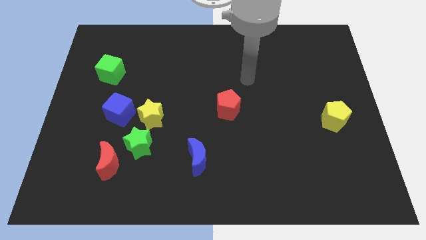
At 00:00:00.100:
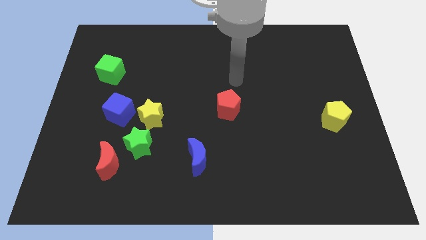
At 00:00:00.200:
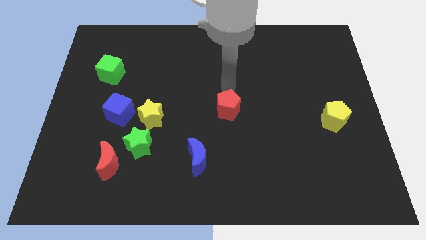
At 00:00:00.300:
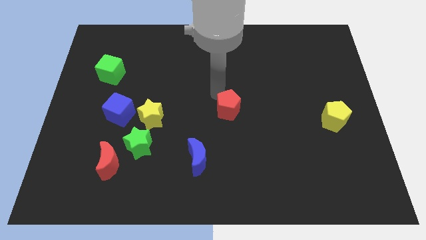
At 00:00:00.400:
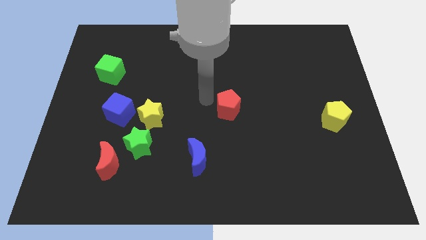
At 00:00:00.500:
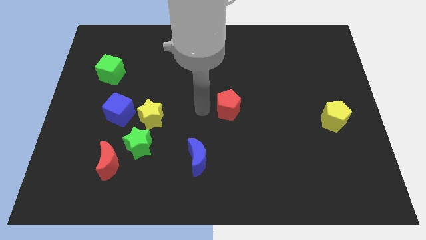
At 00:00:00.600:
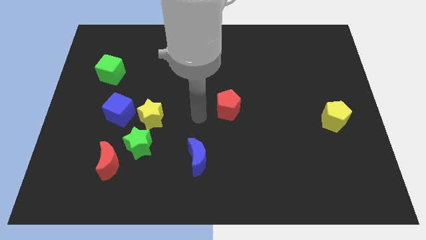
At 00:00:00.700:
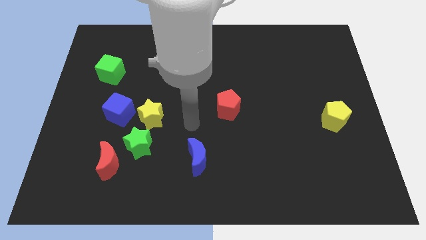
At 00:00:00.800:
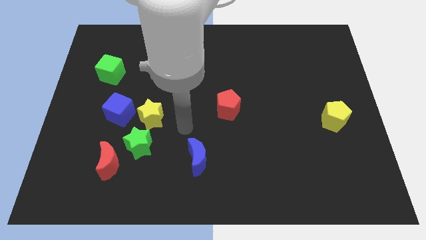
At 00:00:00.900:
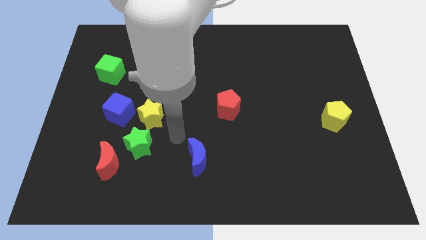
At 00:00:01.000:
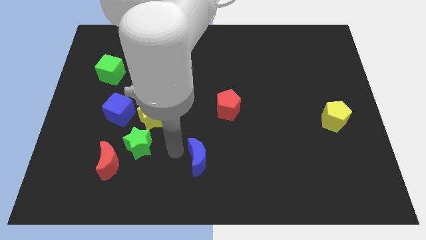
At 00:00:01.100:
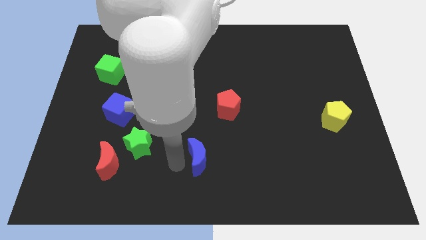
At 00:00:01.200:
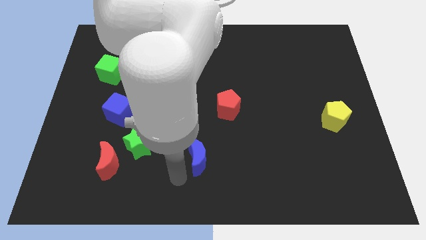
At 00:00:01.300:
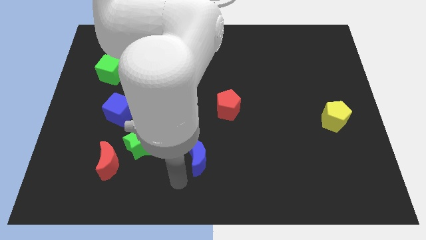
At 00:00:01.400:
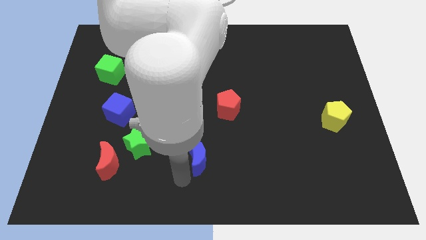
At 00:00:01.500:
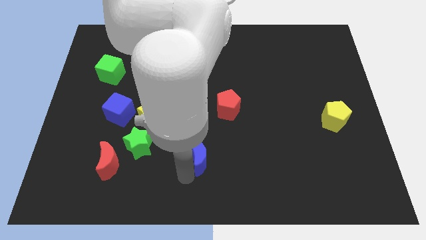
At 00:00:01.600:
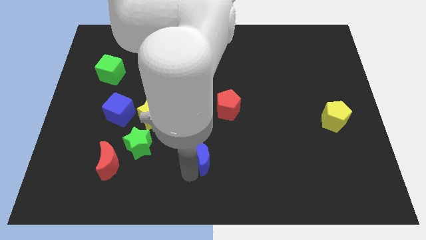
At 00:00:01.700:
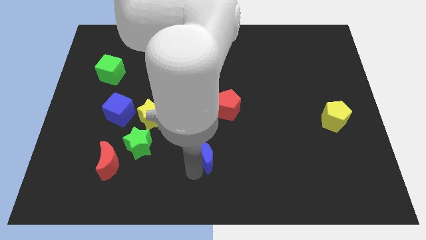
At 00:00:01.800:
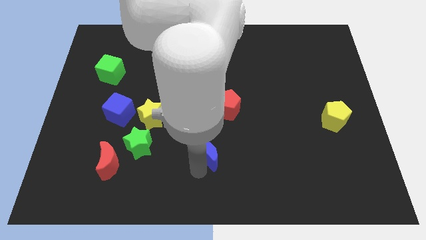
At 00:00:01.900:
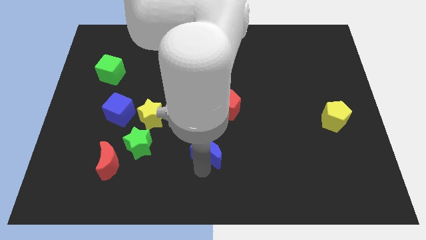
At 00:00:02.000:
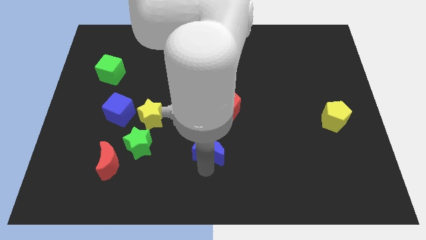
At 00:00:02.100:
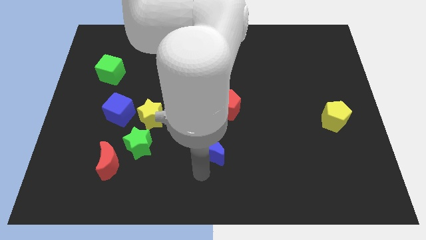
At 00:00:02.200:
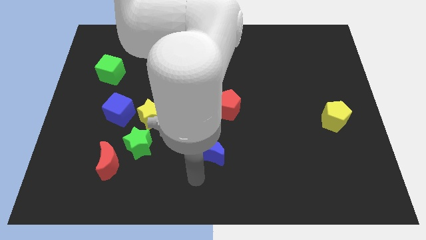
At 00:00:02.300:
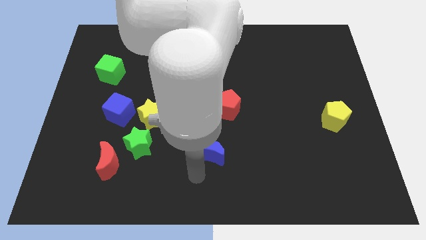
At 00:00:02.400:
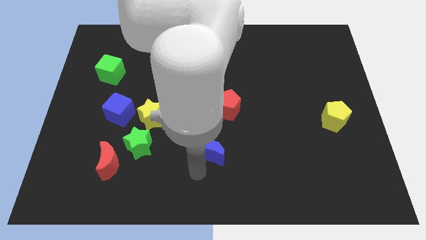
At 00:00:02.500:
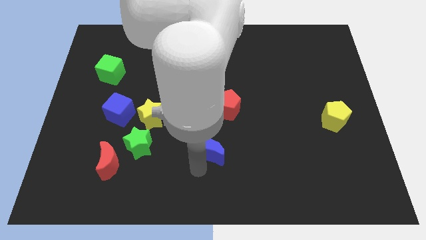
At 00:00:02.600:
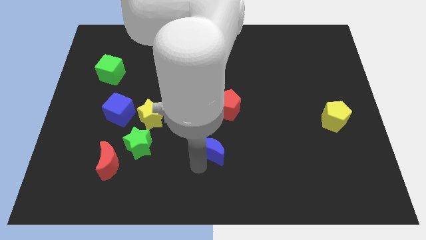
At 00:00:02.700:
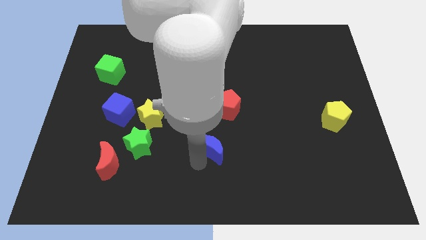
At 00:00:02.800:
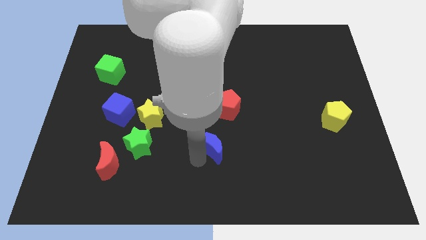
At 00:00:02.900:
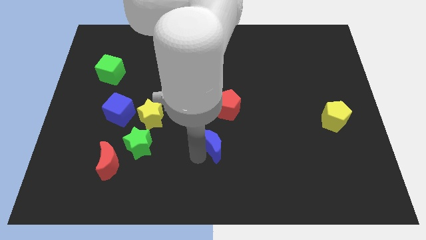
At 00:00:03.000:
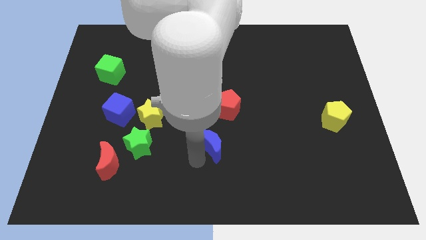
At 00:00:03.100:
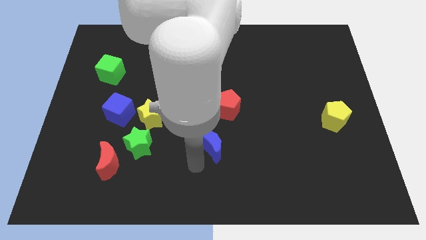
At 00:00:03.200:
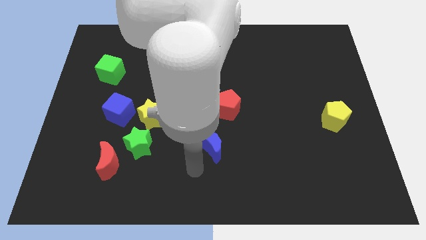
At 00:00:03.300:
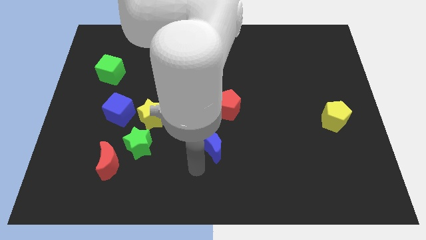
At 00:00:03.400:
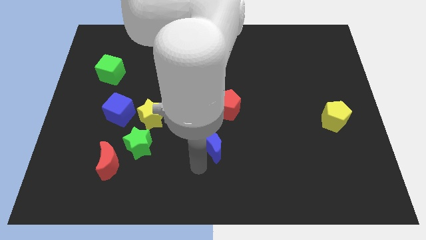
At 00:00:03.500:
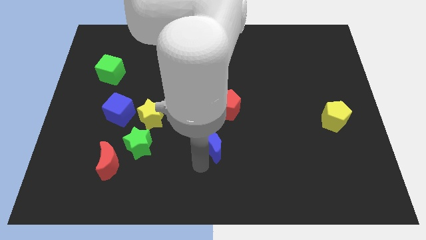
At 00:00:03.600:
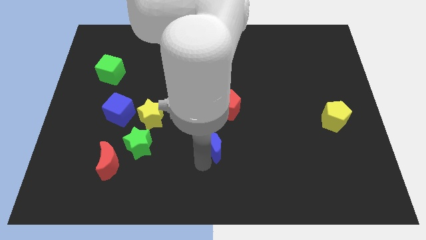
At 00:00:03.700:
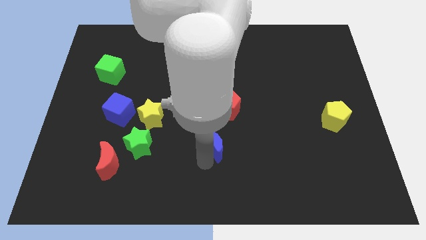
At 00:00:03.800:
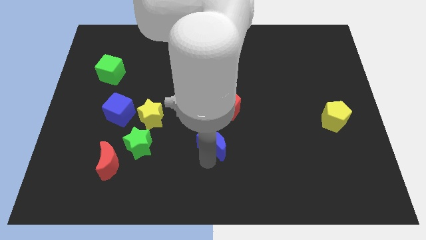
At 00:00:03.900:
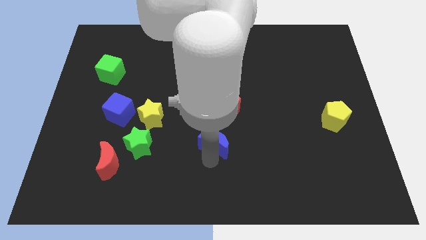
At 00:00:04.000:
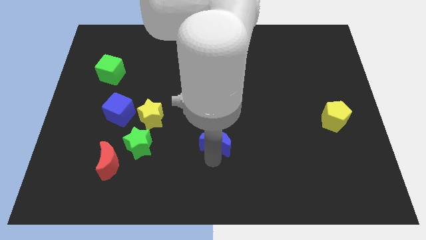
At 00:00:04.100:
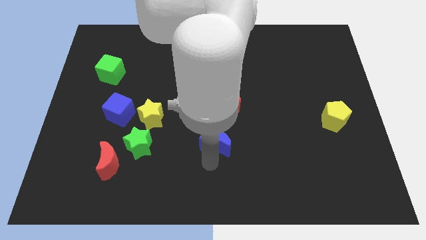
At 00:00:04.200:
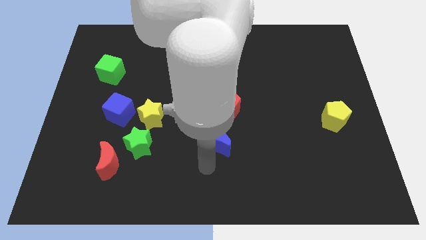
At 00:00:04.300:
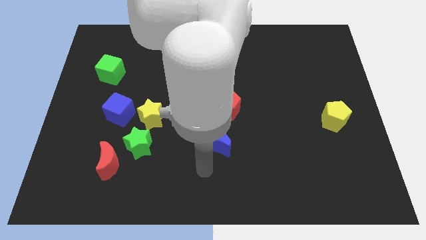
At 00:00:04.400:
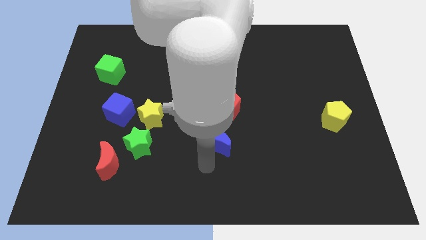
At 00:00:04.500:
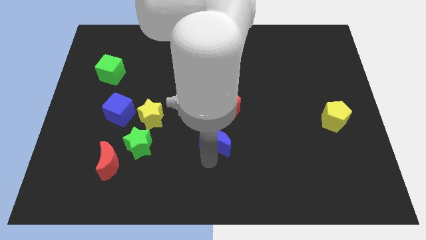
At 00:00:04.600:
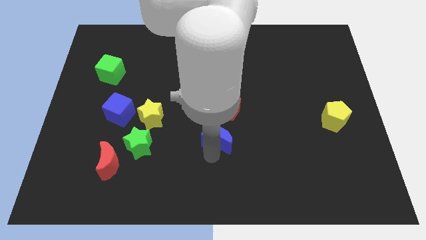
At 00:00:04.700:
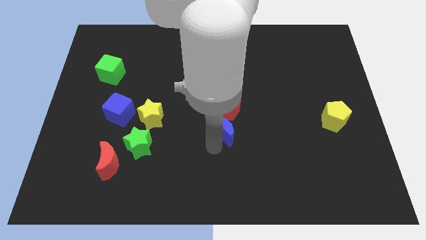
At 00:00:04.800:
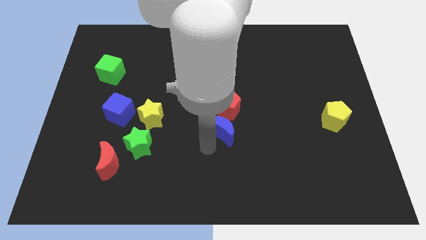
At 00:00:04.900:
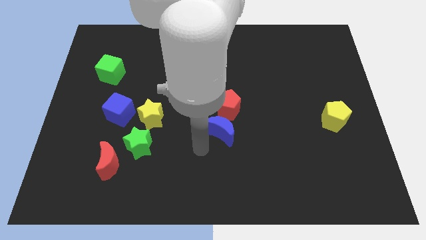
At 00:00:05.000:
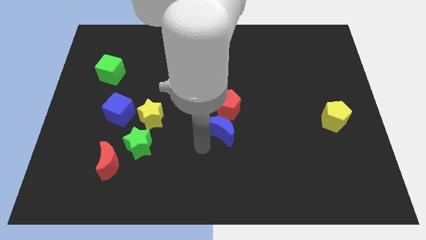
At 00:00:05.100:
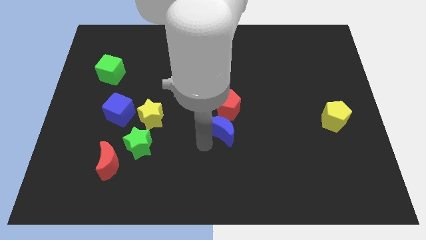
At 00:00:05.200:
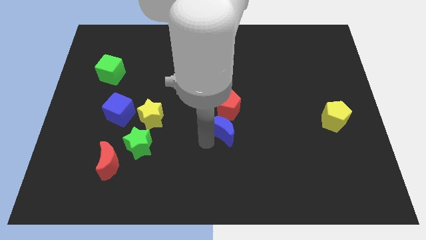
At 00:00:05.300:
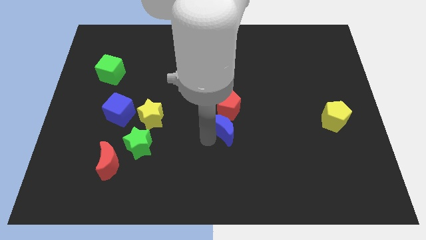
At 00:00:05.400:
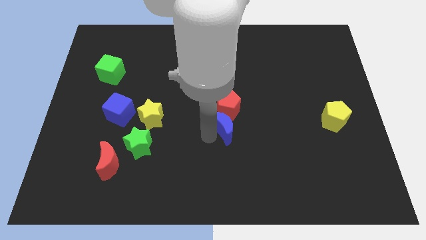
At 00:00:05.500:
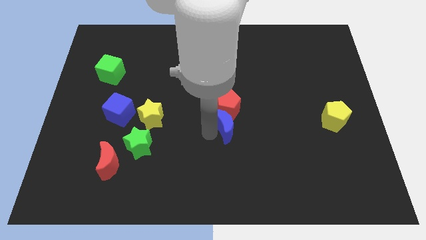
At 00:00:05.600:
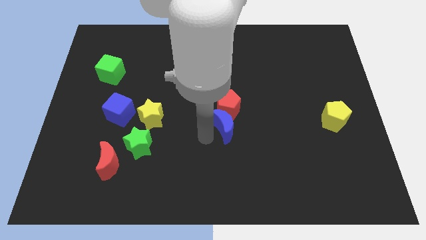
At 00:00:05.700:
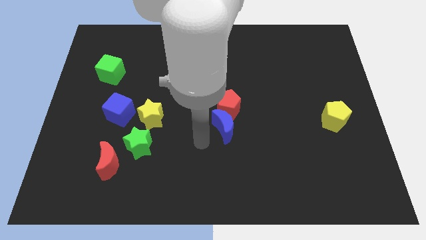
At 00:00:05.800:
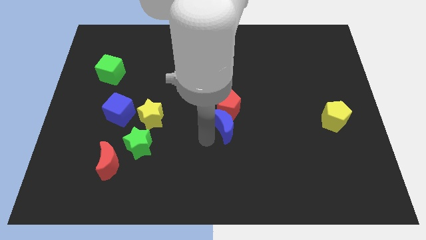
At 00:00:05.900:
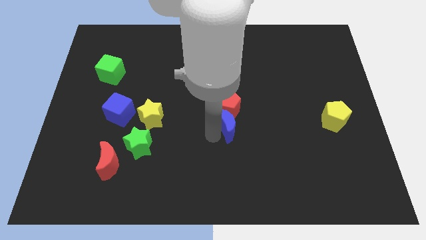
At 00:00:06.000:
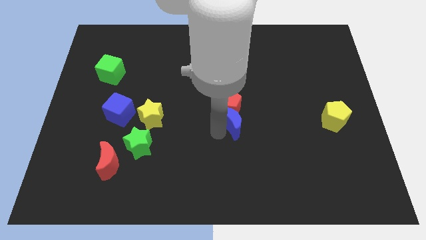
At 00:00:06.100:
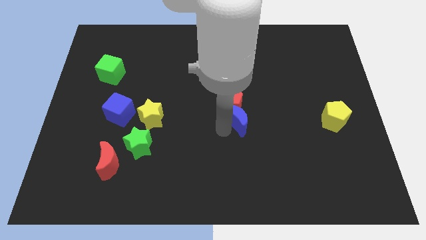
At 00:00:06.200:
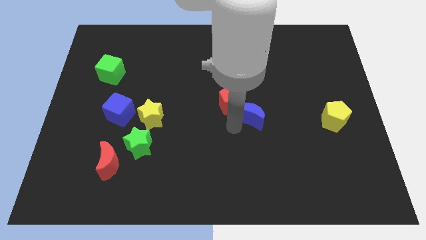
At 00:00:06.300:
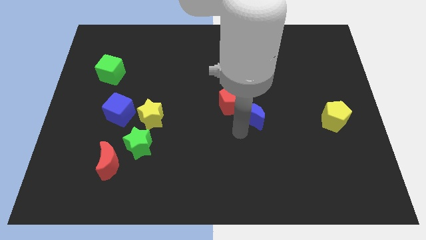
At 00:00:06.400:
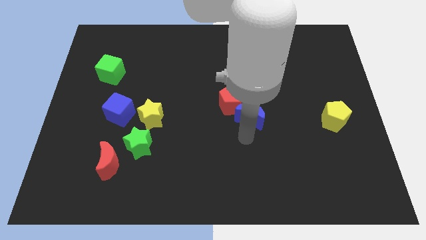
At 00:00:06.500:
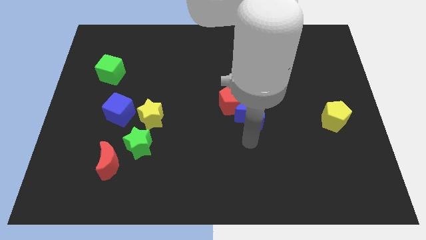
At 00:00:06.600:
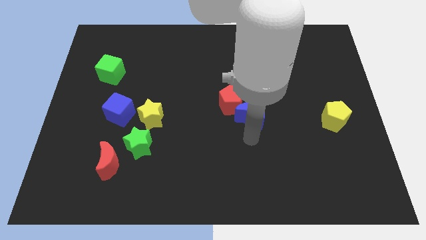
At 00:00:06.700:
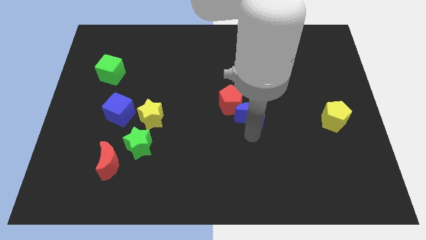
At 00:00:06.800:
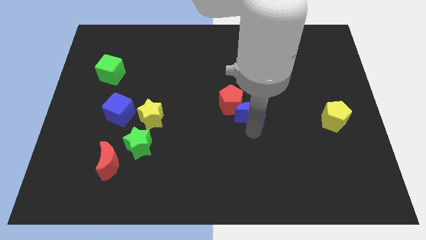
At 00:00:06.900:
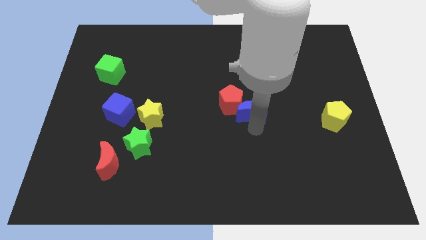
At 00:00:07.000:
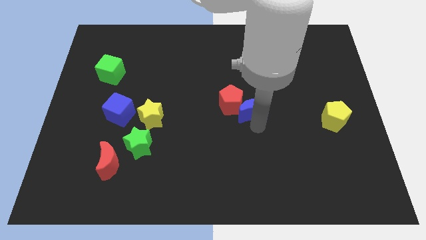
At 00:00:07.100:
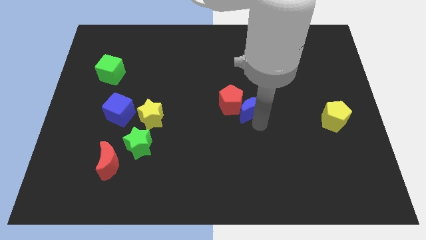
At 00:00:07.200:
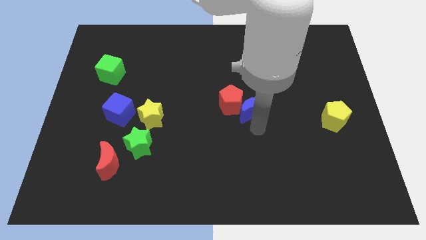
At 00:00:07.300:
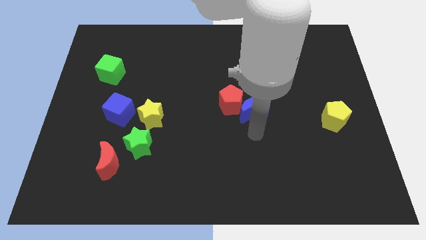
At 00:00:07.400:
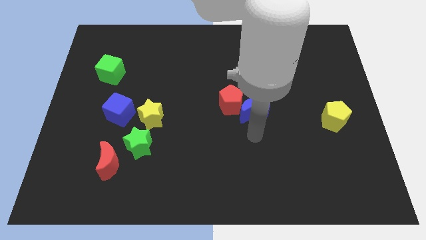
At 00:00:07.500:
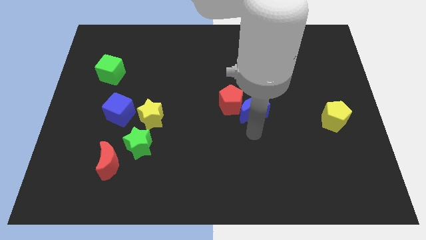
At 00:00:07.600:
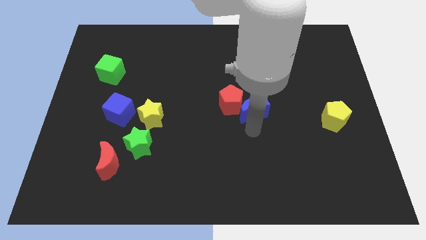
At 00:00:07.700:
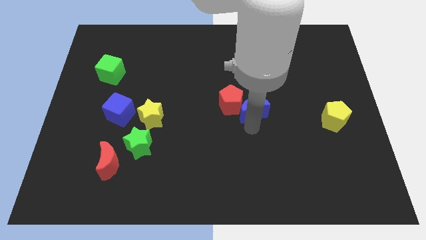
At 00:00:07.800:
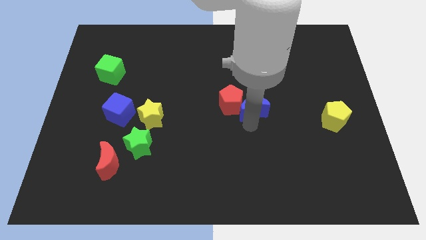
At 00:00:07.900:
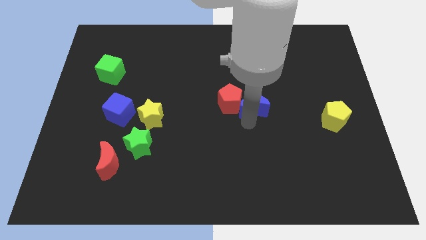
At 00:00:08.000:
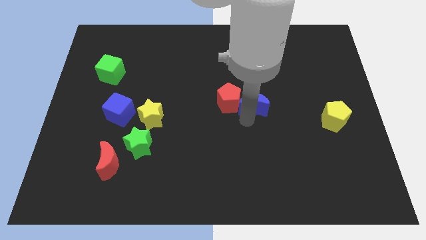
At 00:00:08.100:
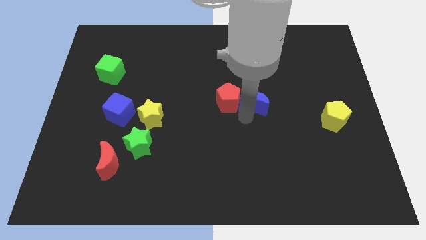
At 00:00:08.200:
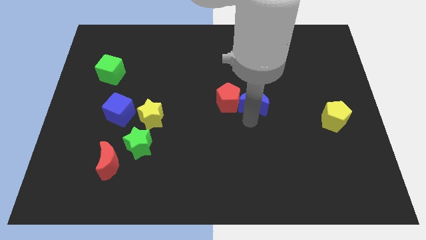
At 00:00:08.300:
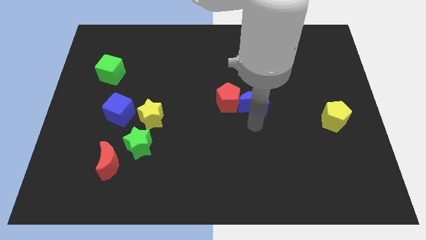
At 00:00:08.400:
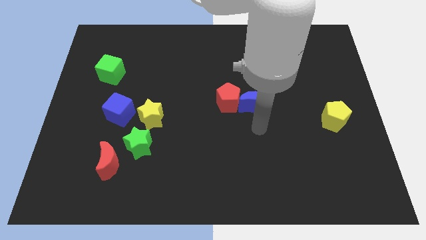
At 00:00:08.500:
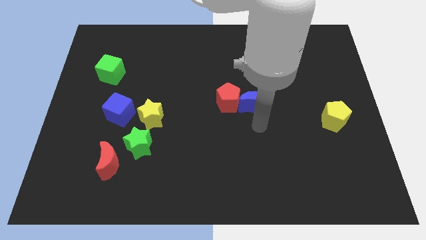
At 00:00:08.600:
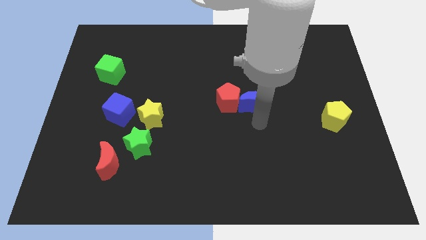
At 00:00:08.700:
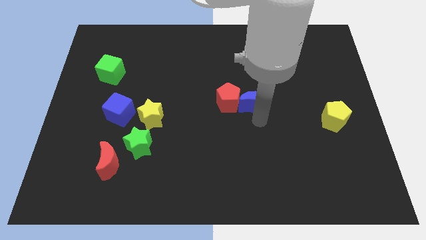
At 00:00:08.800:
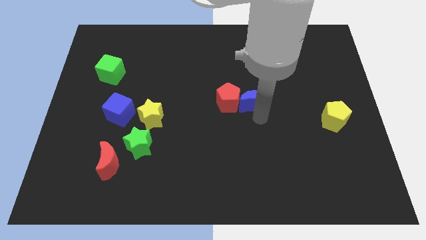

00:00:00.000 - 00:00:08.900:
push the blue moon to the top right of the red pentagon
